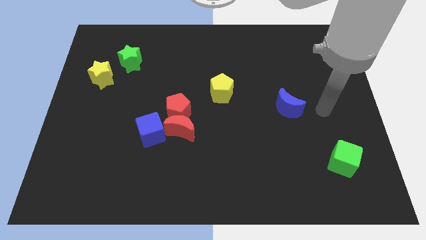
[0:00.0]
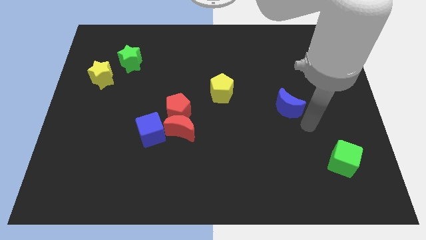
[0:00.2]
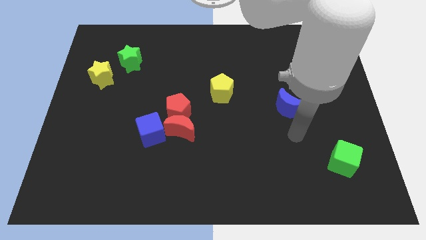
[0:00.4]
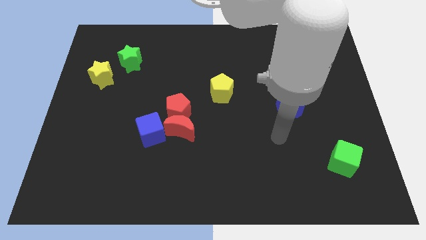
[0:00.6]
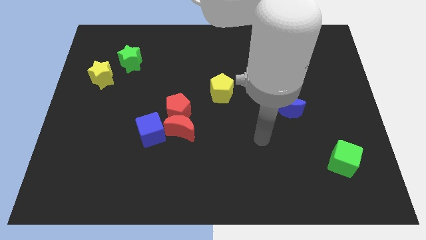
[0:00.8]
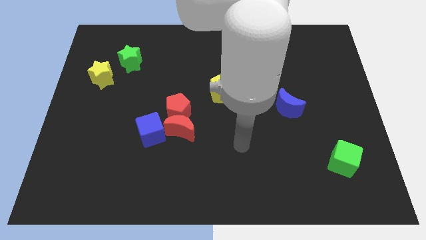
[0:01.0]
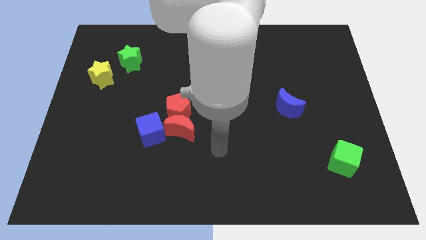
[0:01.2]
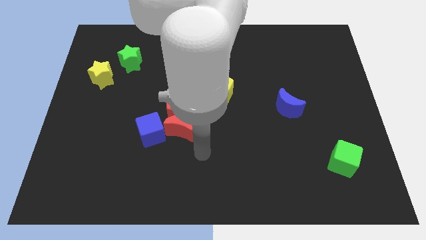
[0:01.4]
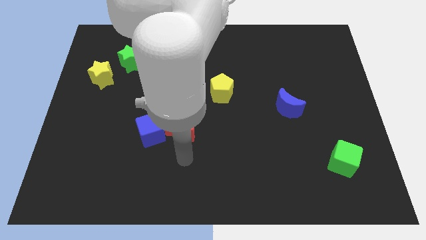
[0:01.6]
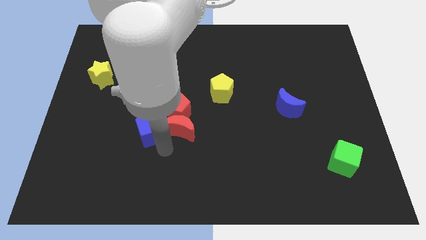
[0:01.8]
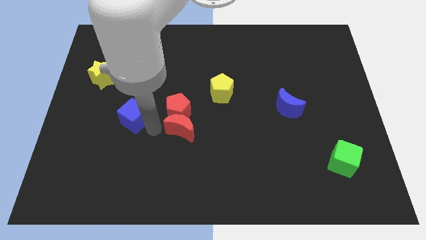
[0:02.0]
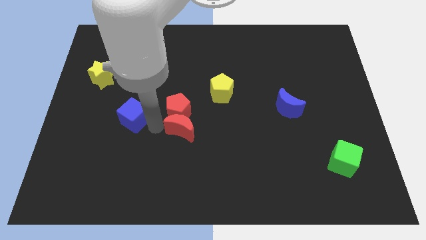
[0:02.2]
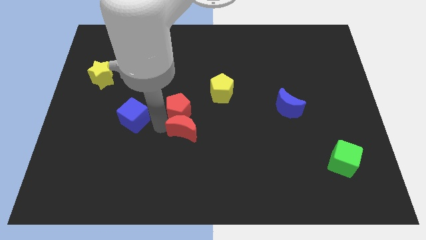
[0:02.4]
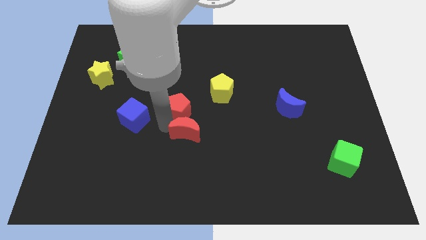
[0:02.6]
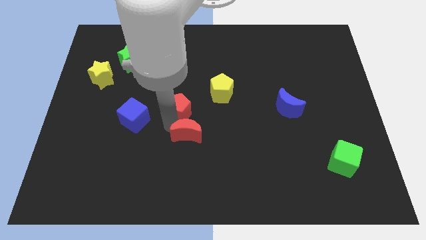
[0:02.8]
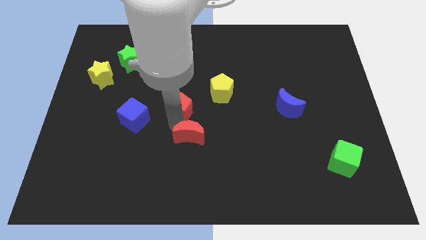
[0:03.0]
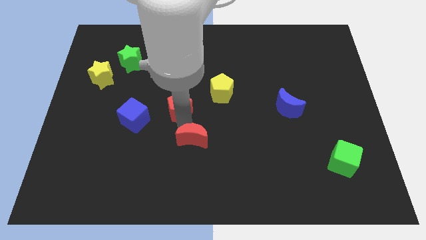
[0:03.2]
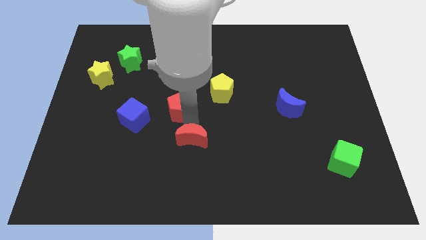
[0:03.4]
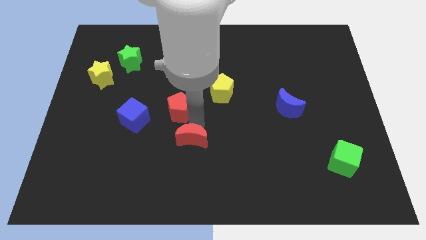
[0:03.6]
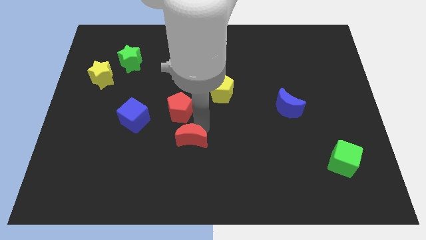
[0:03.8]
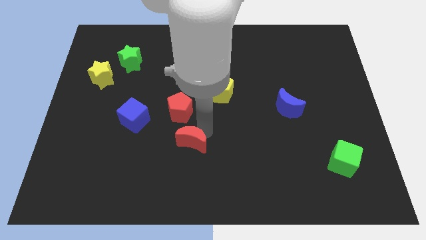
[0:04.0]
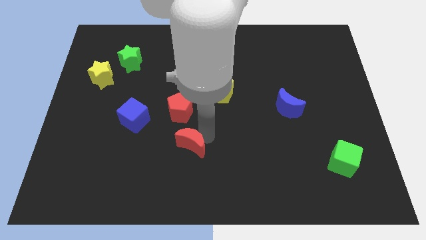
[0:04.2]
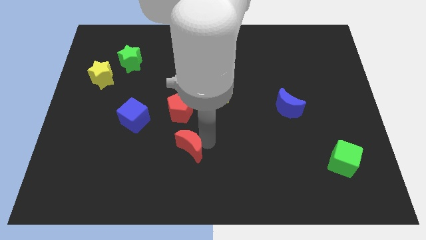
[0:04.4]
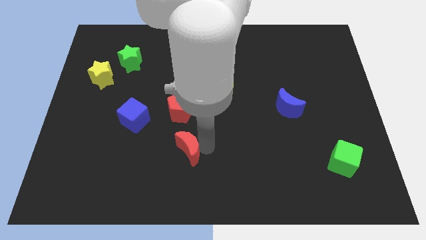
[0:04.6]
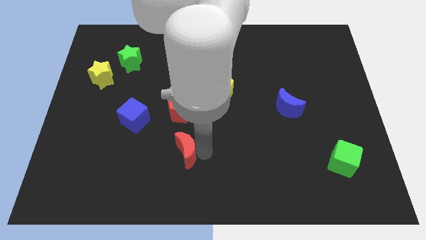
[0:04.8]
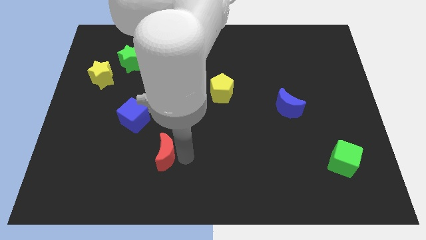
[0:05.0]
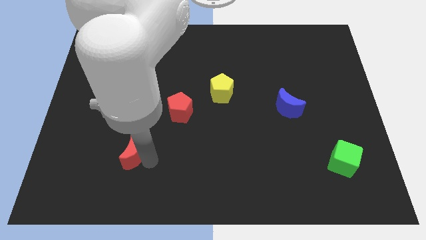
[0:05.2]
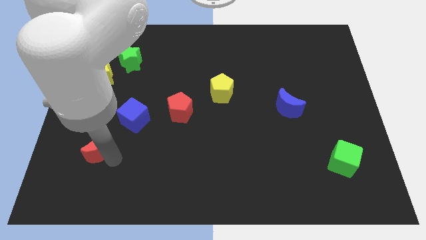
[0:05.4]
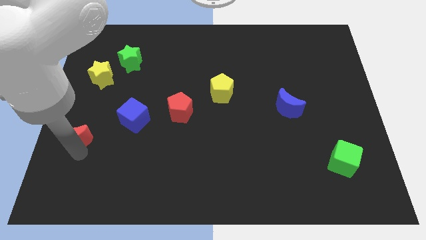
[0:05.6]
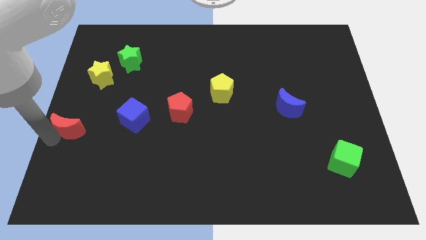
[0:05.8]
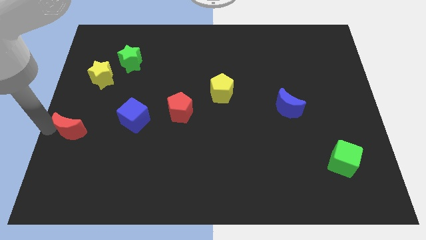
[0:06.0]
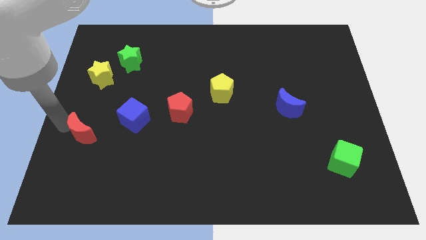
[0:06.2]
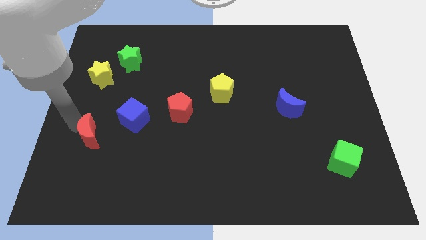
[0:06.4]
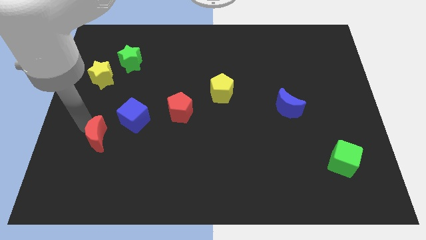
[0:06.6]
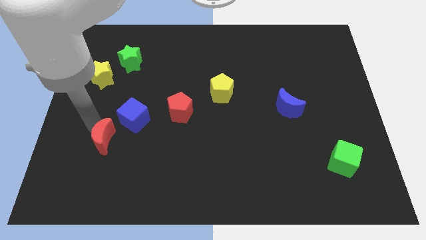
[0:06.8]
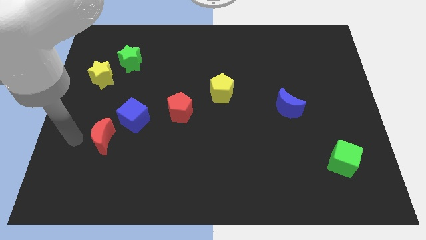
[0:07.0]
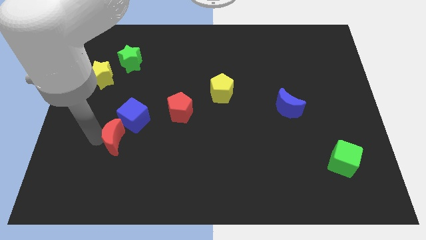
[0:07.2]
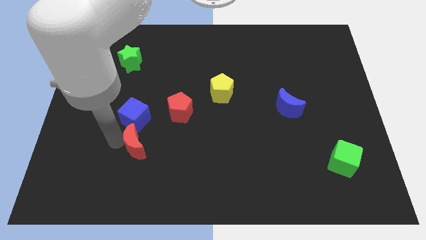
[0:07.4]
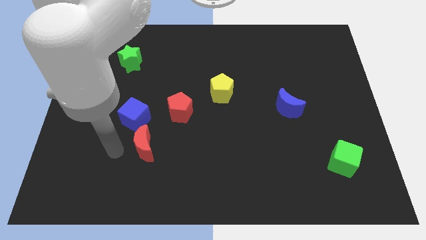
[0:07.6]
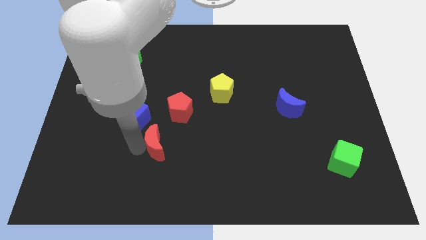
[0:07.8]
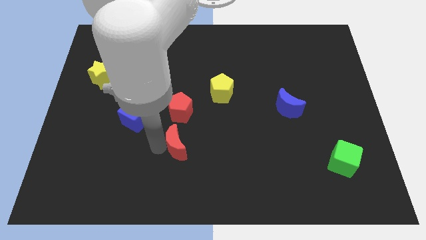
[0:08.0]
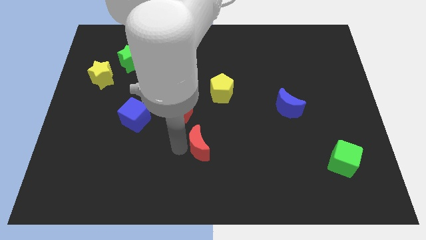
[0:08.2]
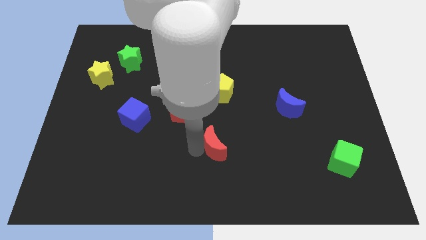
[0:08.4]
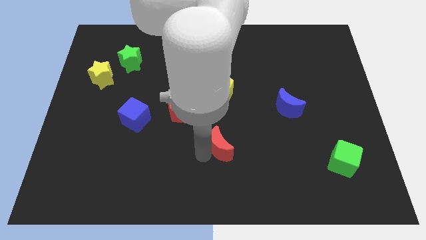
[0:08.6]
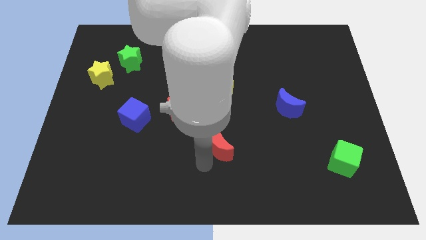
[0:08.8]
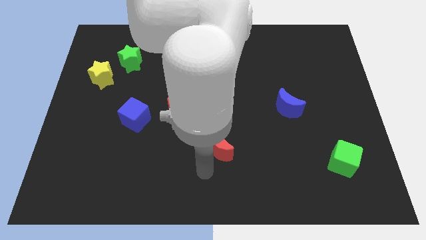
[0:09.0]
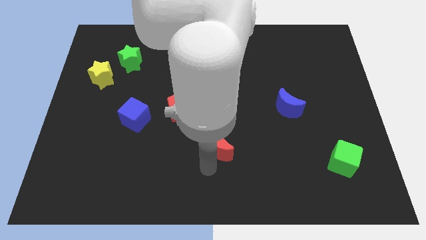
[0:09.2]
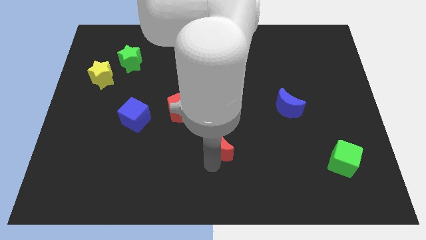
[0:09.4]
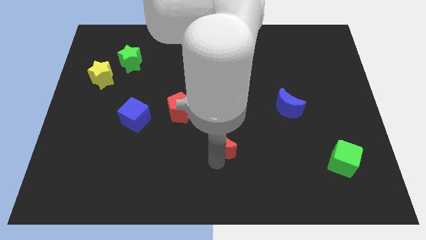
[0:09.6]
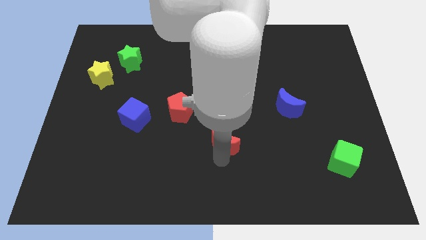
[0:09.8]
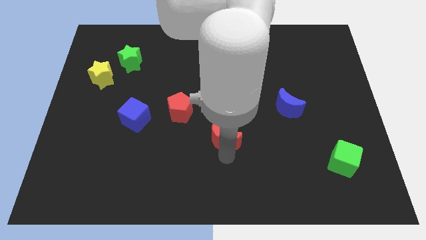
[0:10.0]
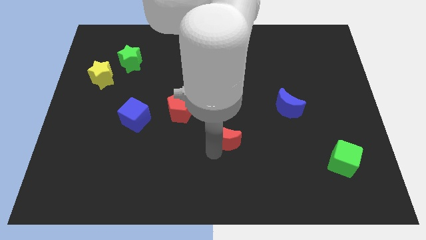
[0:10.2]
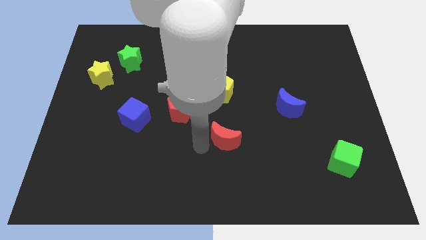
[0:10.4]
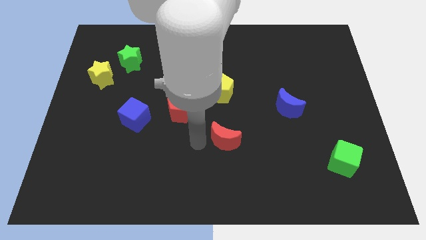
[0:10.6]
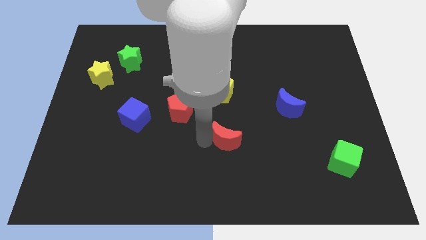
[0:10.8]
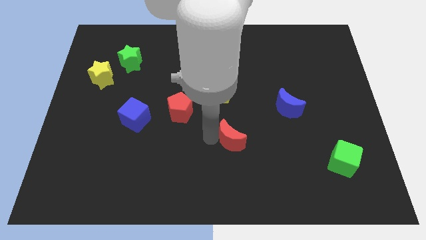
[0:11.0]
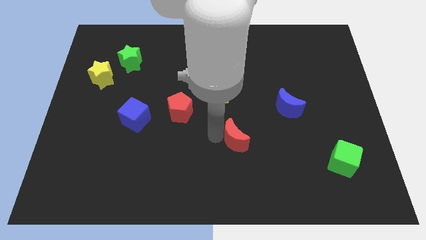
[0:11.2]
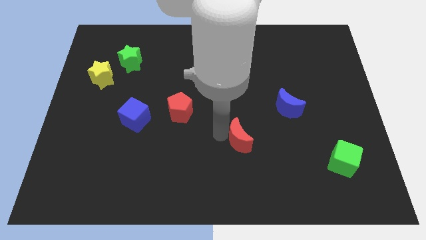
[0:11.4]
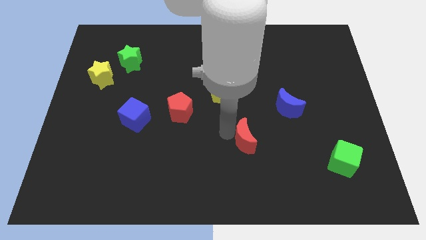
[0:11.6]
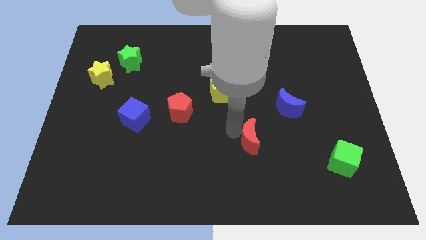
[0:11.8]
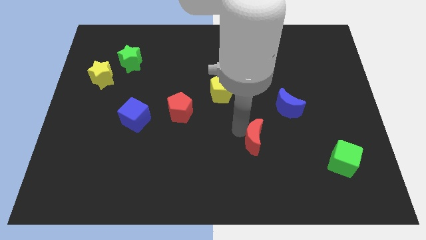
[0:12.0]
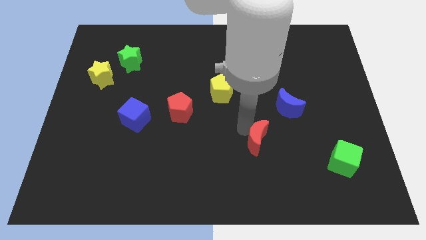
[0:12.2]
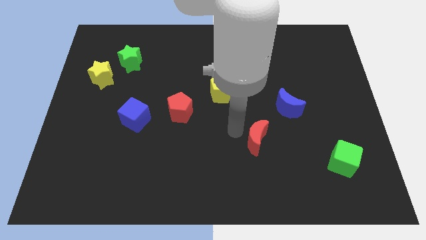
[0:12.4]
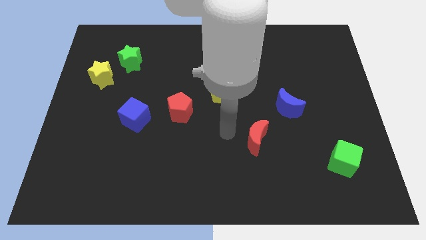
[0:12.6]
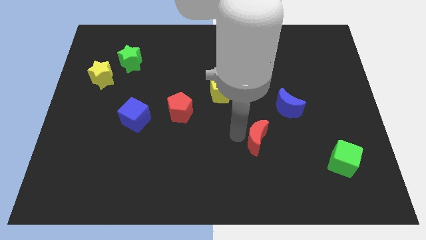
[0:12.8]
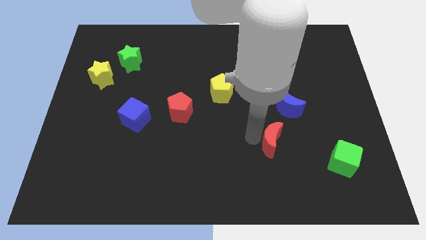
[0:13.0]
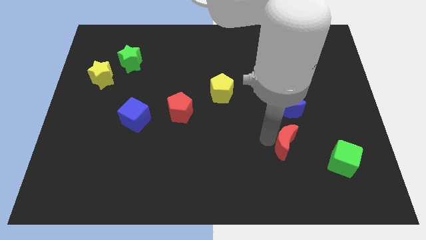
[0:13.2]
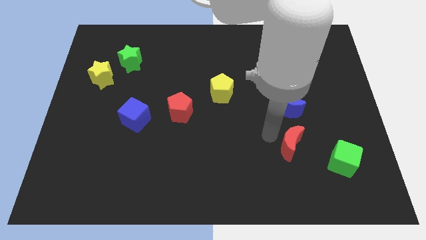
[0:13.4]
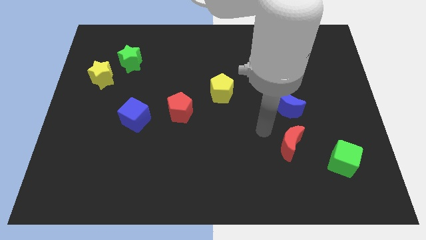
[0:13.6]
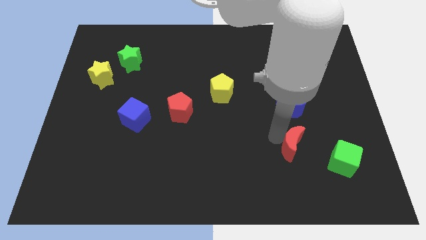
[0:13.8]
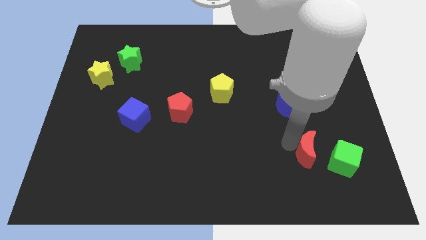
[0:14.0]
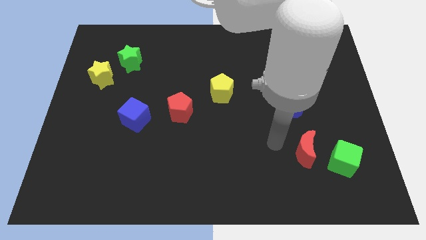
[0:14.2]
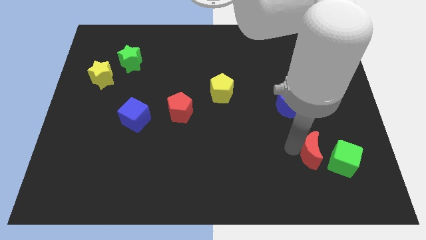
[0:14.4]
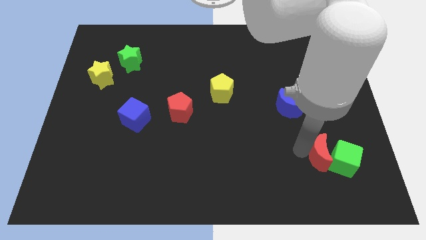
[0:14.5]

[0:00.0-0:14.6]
put the red moon towards the green cube
